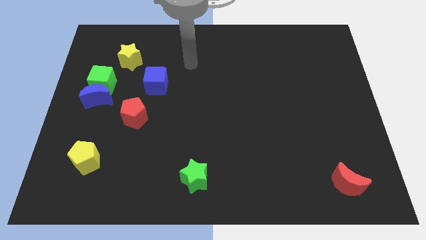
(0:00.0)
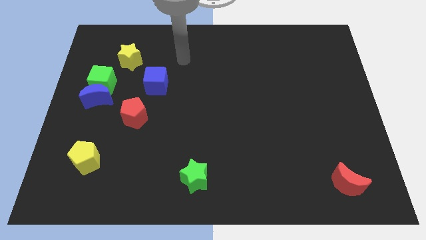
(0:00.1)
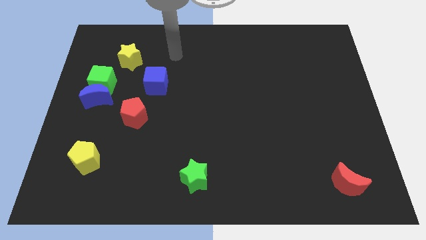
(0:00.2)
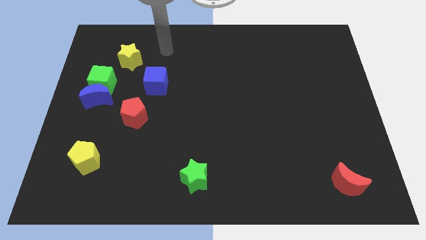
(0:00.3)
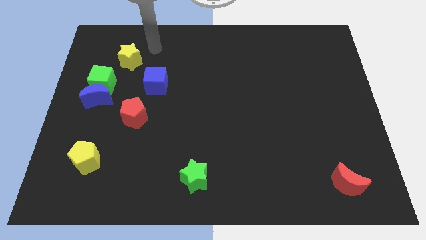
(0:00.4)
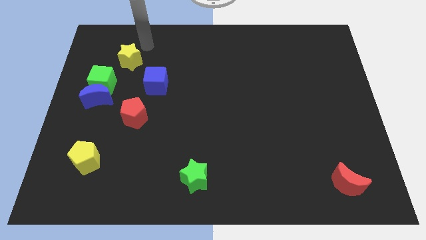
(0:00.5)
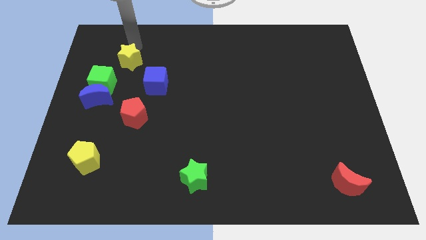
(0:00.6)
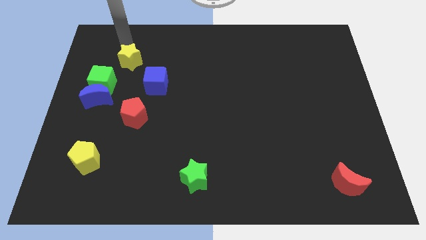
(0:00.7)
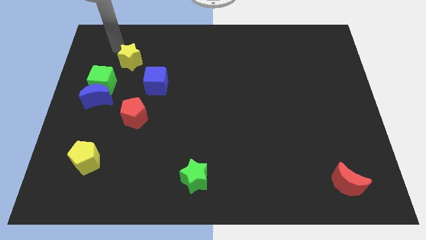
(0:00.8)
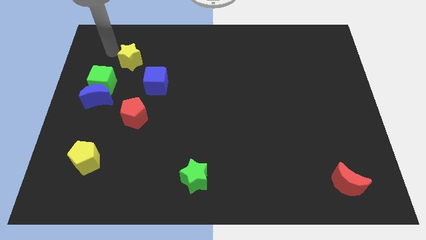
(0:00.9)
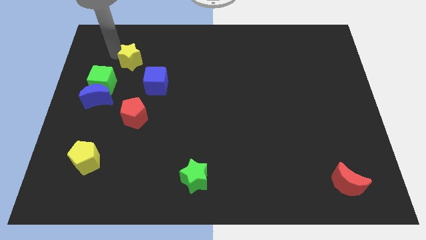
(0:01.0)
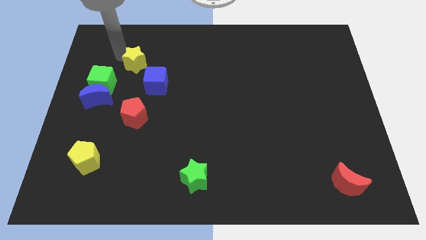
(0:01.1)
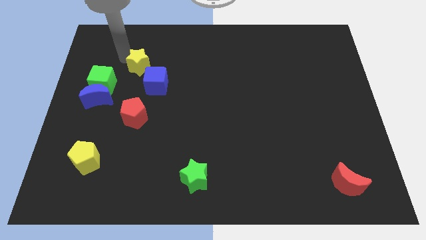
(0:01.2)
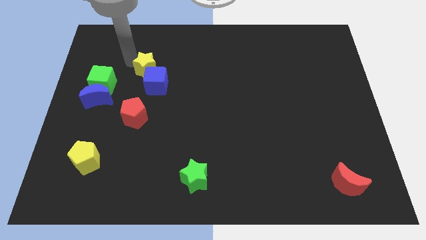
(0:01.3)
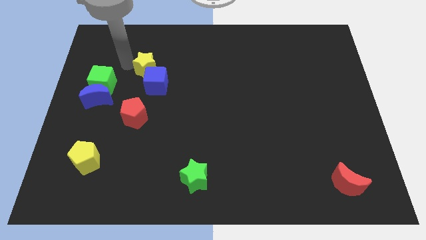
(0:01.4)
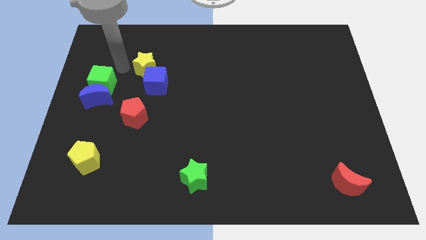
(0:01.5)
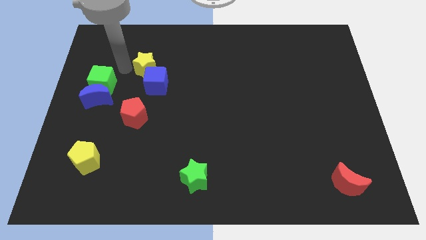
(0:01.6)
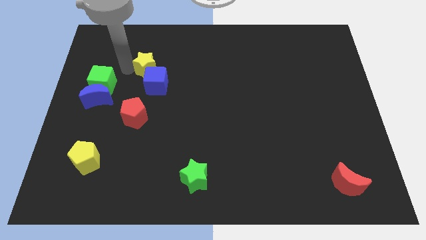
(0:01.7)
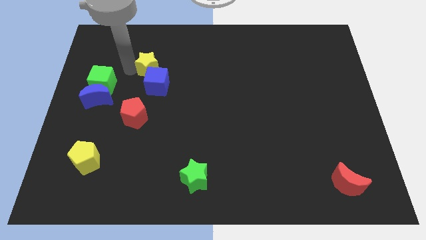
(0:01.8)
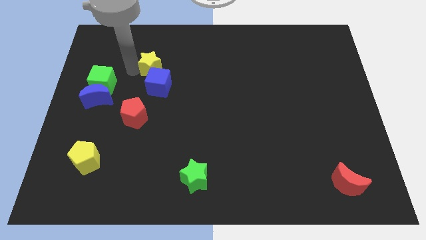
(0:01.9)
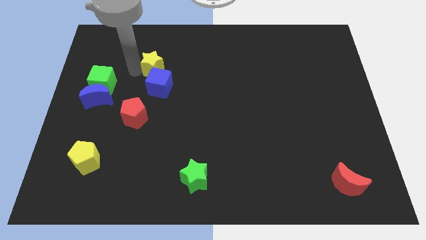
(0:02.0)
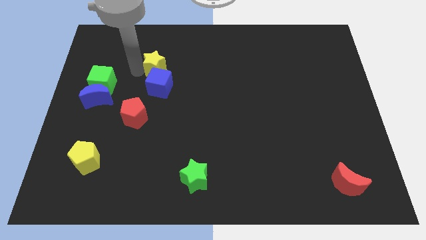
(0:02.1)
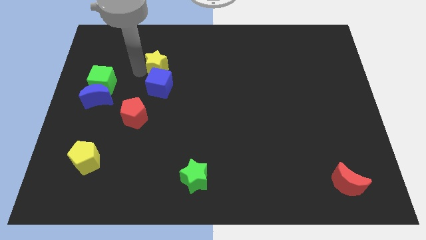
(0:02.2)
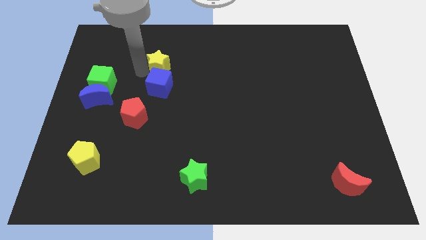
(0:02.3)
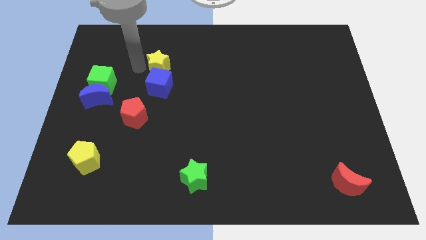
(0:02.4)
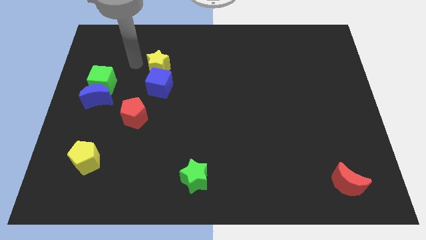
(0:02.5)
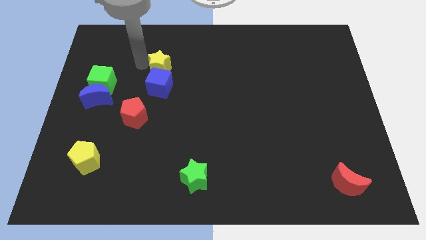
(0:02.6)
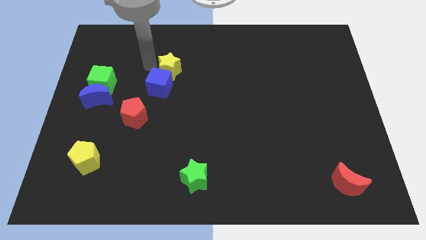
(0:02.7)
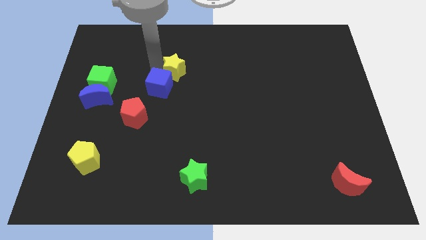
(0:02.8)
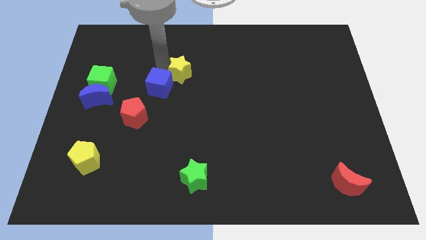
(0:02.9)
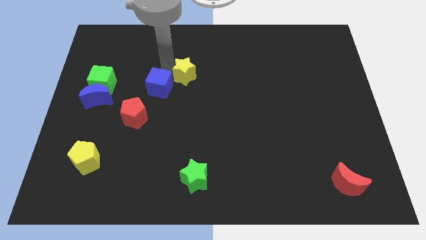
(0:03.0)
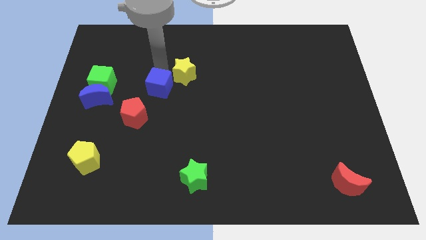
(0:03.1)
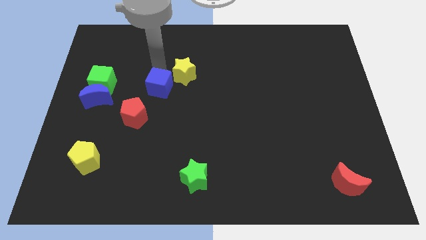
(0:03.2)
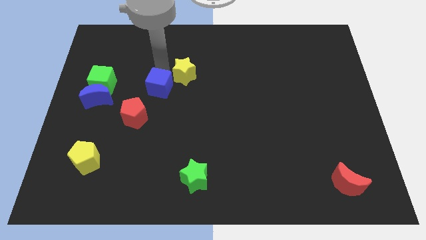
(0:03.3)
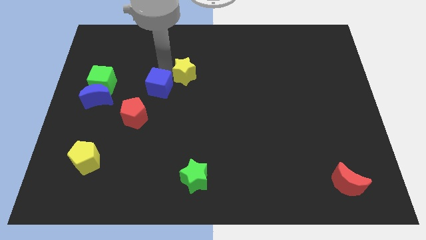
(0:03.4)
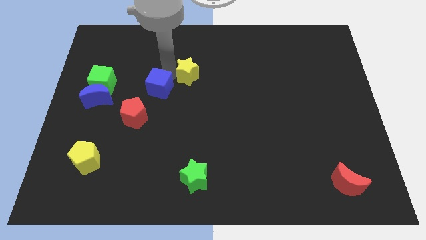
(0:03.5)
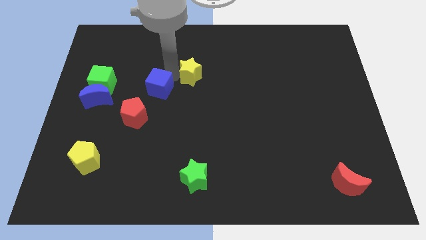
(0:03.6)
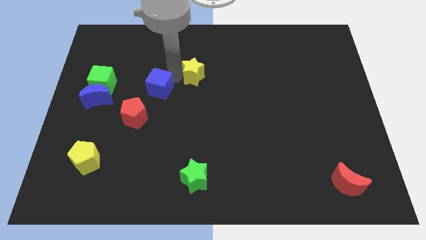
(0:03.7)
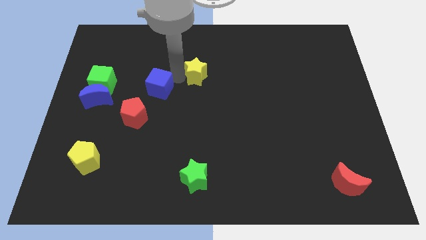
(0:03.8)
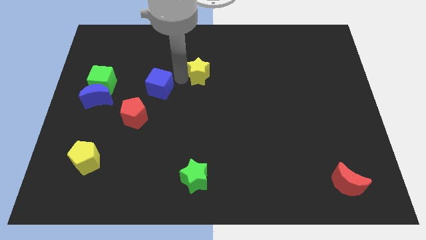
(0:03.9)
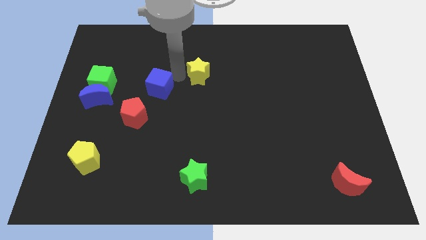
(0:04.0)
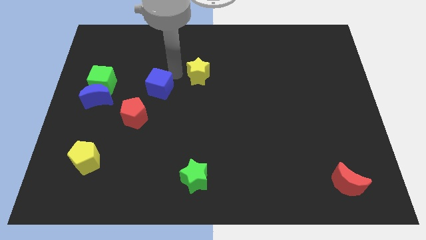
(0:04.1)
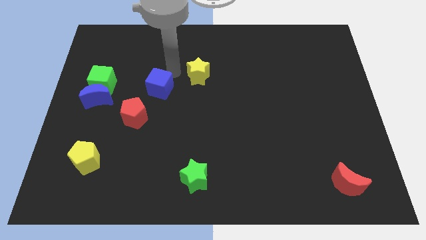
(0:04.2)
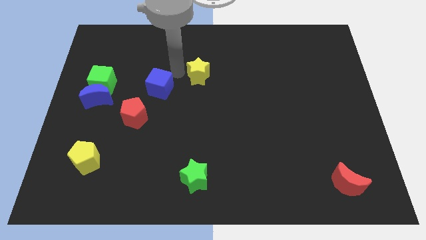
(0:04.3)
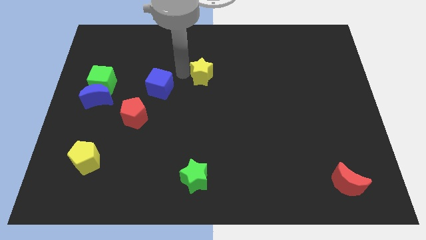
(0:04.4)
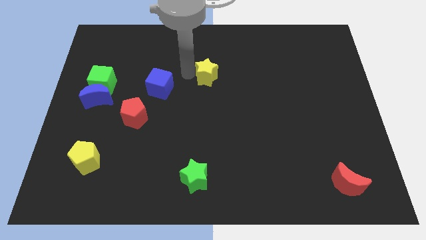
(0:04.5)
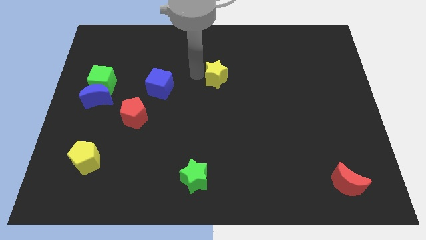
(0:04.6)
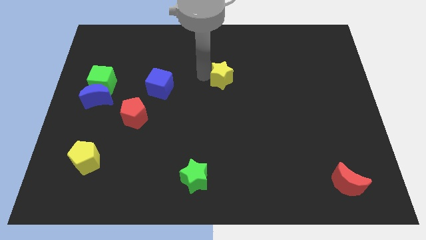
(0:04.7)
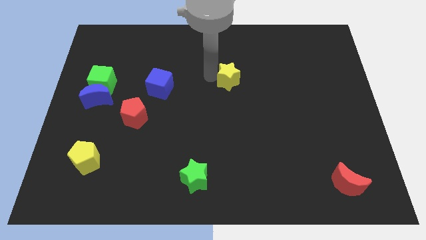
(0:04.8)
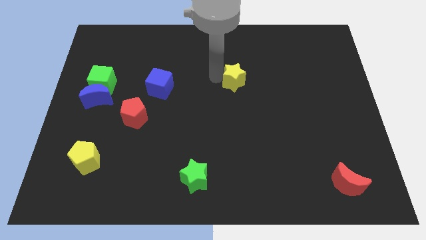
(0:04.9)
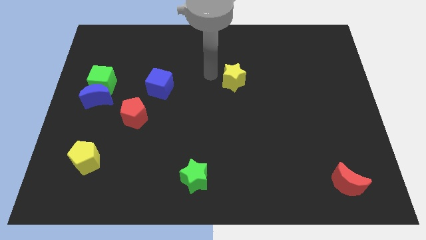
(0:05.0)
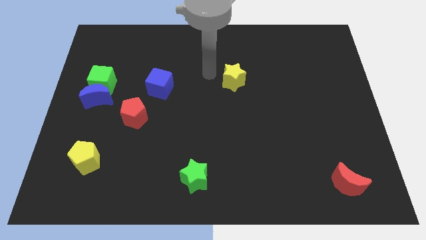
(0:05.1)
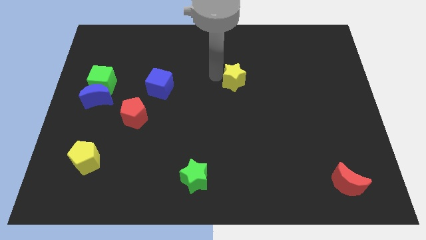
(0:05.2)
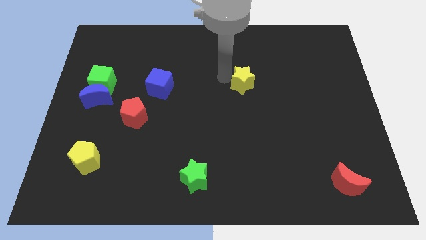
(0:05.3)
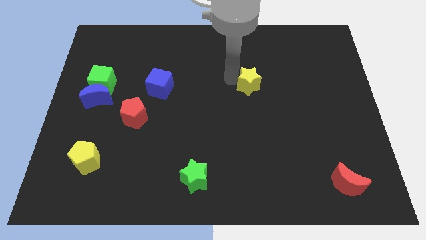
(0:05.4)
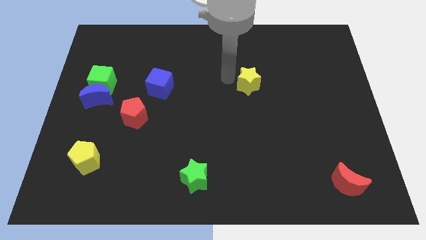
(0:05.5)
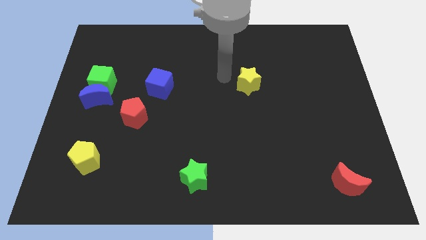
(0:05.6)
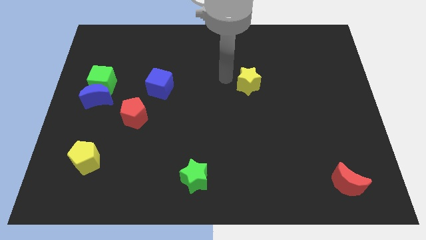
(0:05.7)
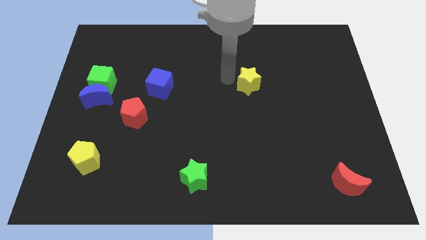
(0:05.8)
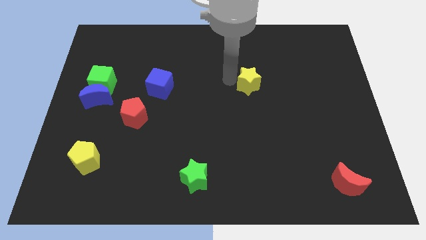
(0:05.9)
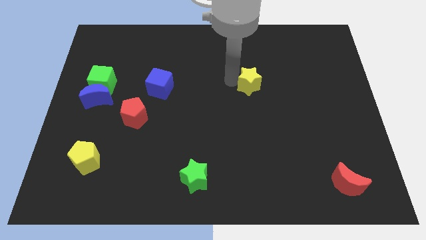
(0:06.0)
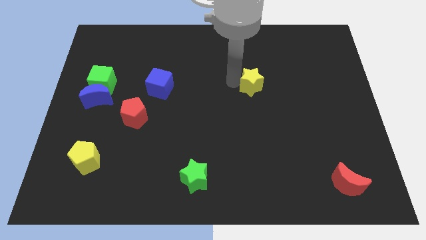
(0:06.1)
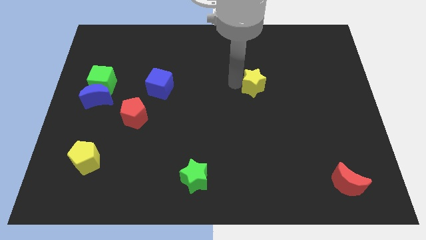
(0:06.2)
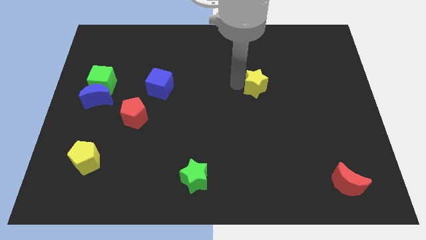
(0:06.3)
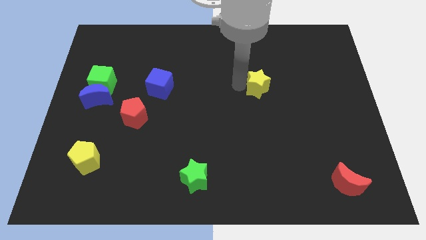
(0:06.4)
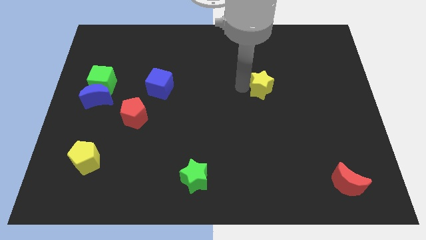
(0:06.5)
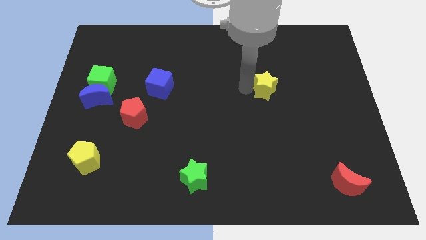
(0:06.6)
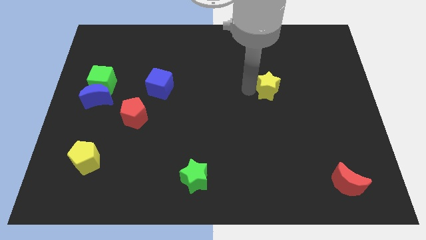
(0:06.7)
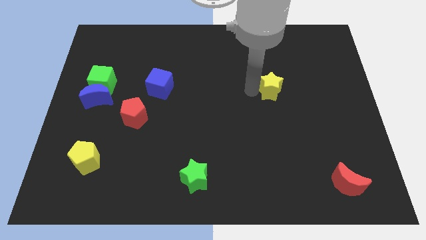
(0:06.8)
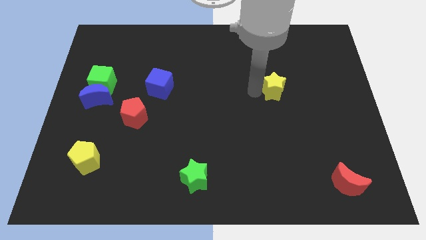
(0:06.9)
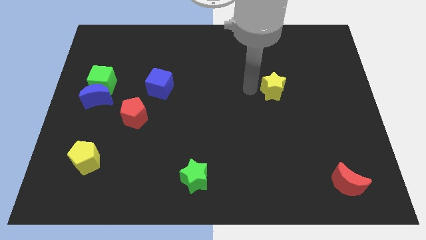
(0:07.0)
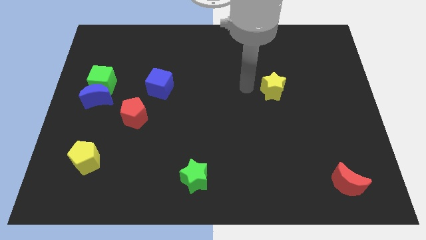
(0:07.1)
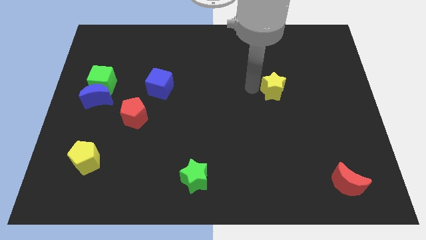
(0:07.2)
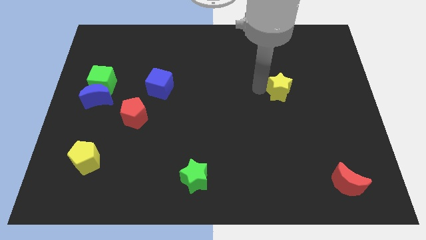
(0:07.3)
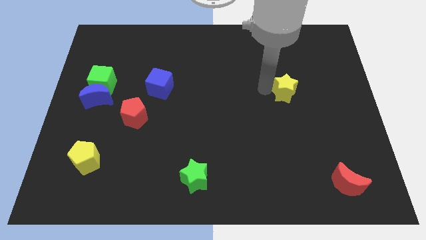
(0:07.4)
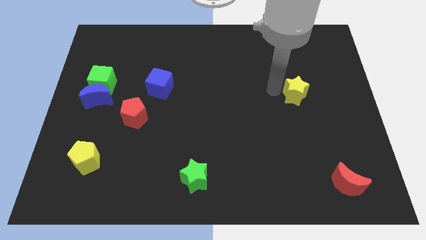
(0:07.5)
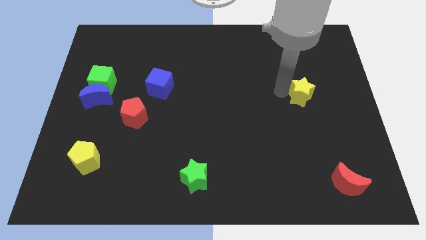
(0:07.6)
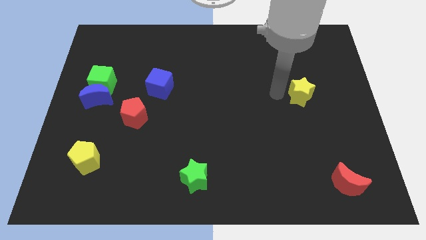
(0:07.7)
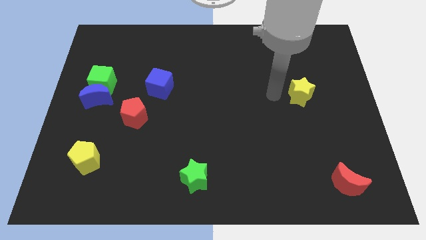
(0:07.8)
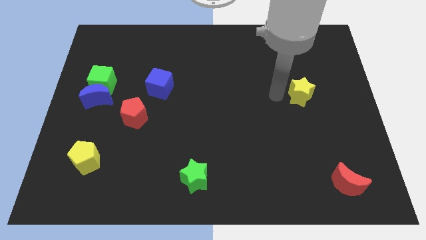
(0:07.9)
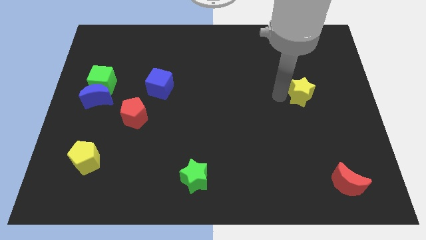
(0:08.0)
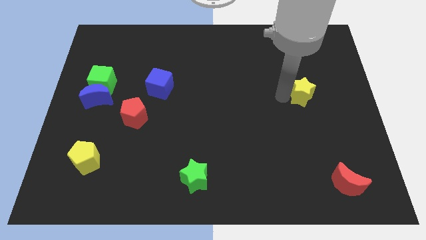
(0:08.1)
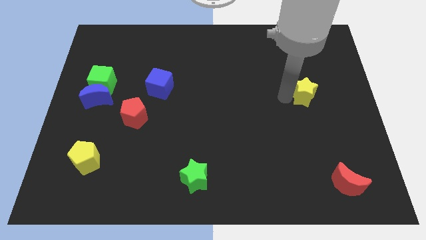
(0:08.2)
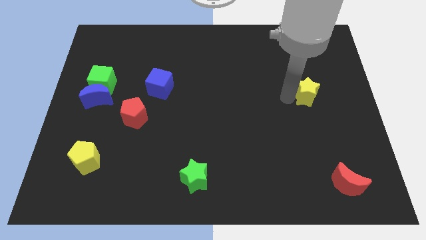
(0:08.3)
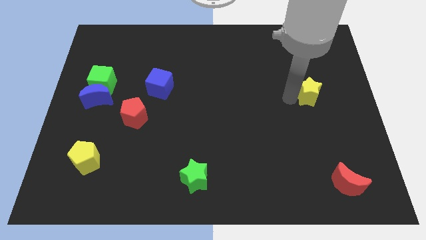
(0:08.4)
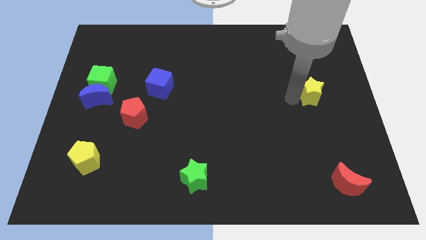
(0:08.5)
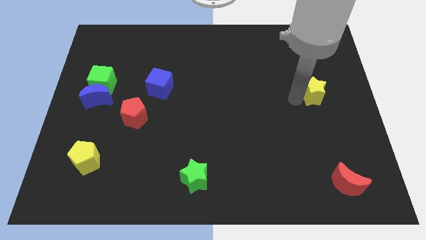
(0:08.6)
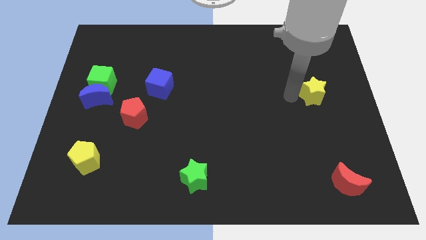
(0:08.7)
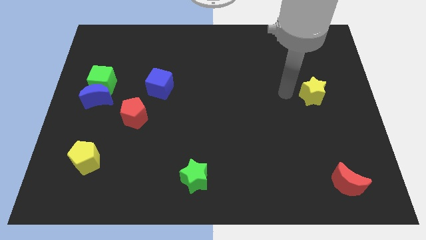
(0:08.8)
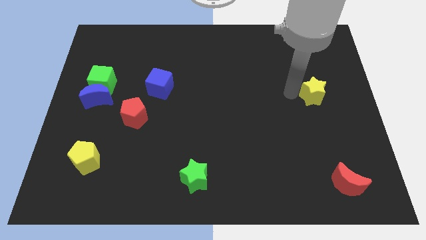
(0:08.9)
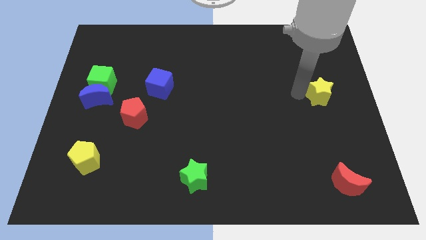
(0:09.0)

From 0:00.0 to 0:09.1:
slide the yellow star to the right side of the board
